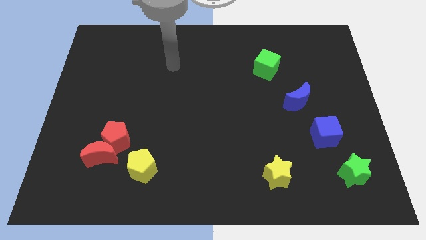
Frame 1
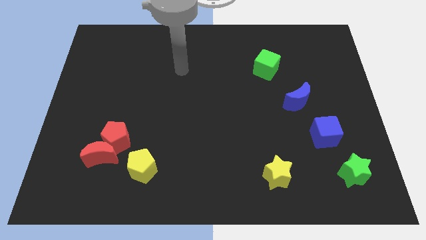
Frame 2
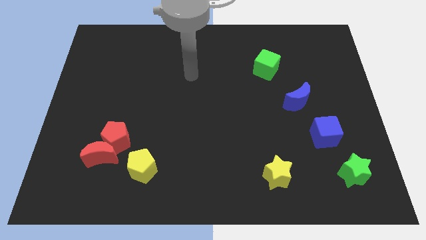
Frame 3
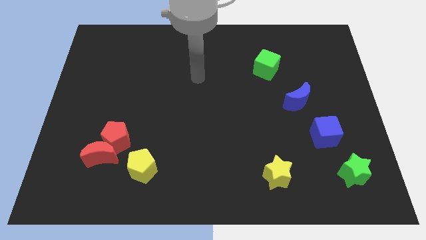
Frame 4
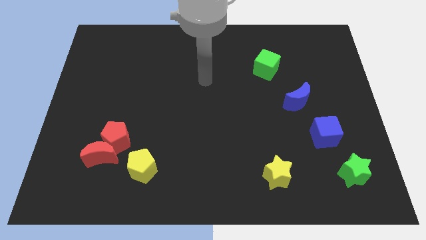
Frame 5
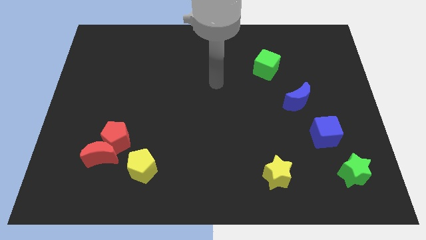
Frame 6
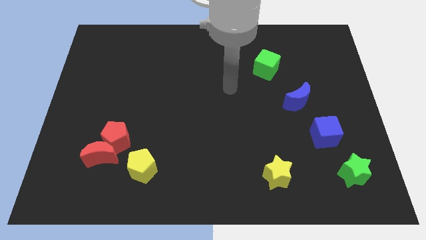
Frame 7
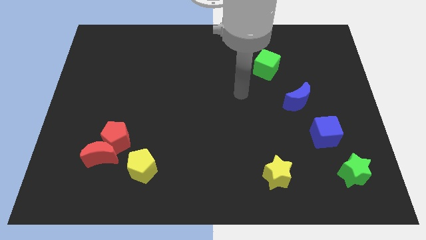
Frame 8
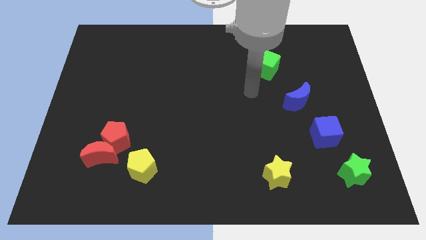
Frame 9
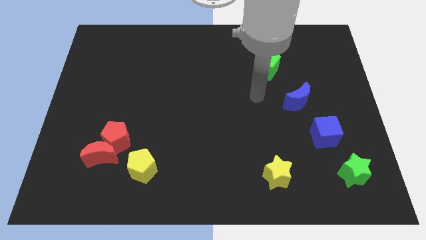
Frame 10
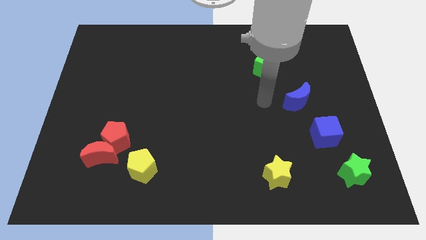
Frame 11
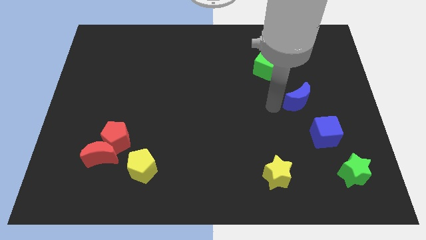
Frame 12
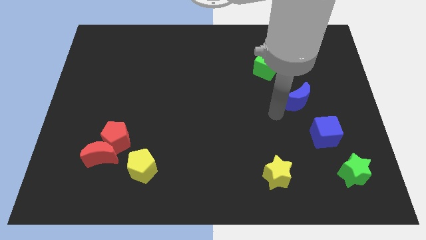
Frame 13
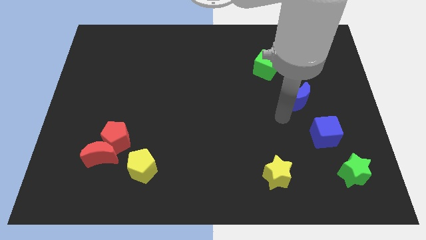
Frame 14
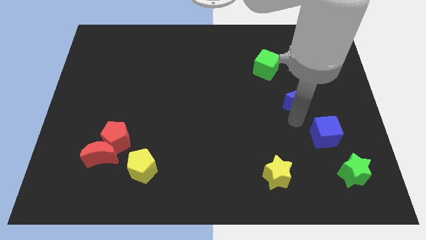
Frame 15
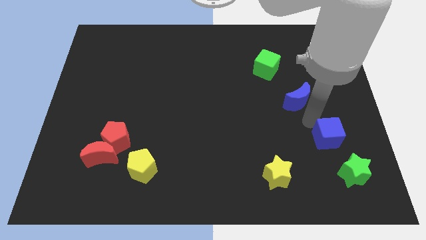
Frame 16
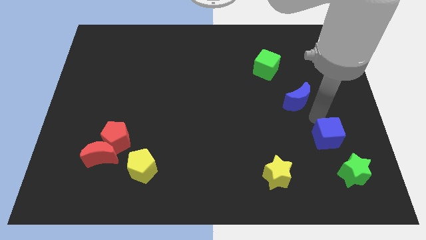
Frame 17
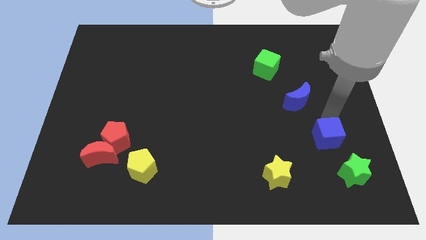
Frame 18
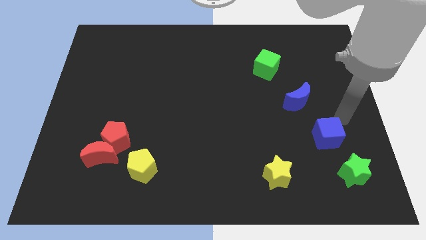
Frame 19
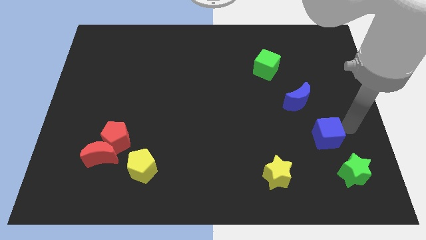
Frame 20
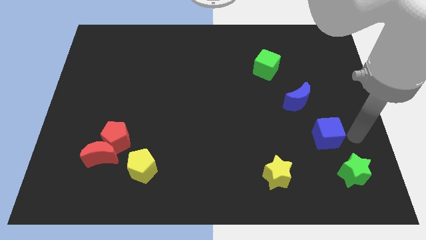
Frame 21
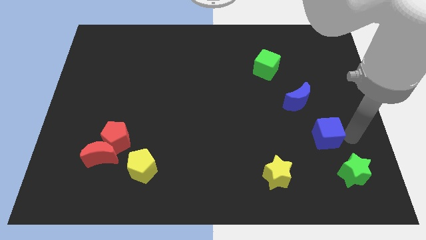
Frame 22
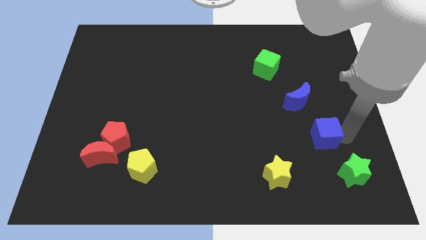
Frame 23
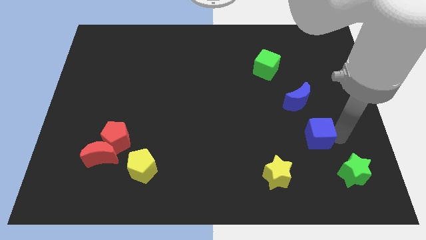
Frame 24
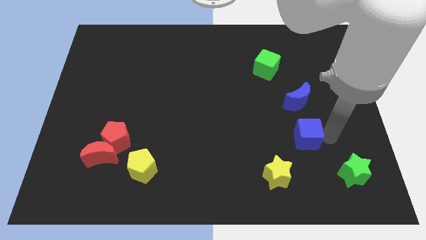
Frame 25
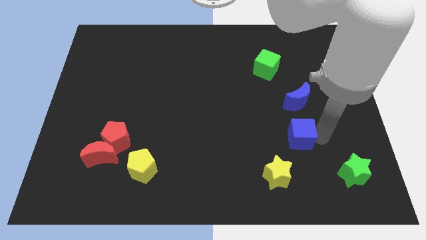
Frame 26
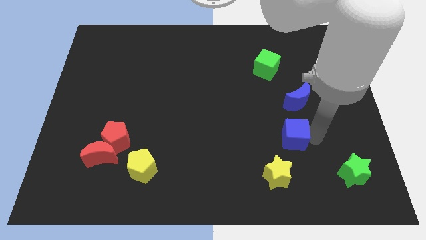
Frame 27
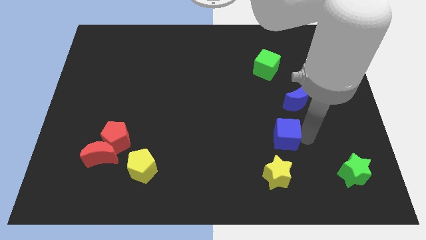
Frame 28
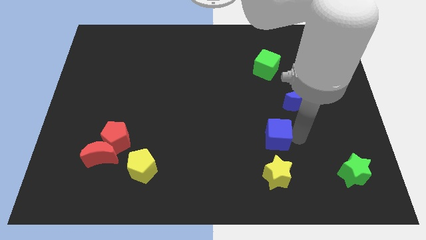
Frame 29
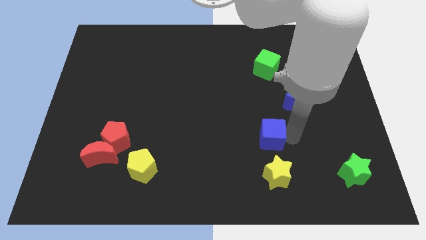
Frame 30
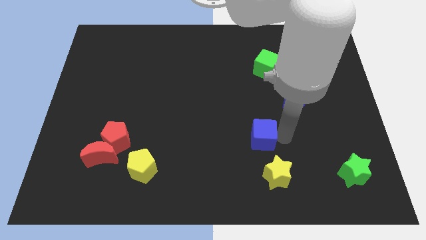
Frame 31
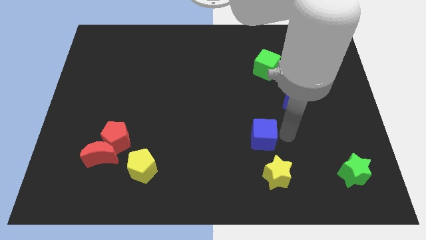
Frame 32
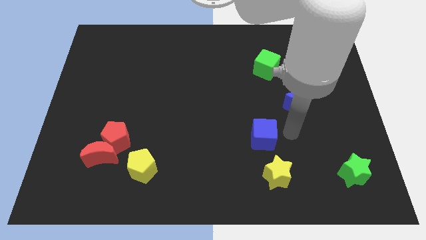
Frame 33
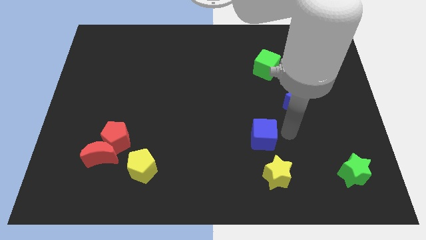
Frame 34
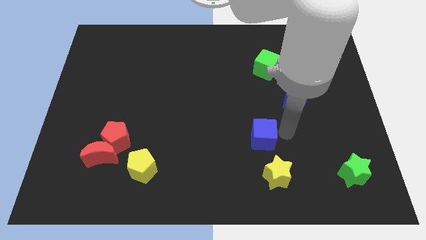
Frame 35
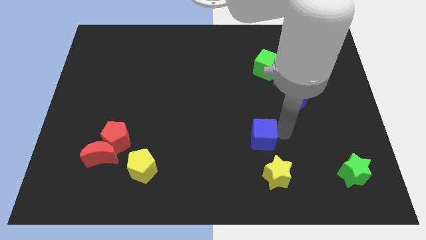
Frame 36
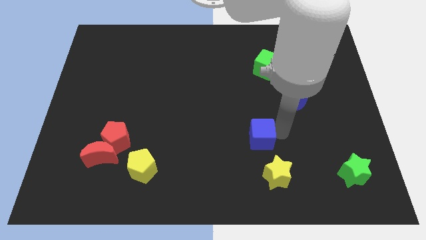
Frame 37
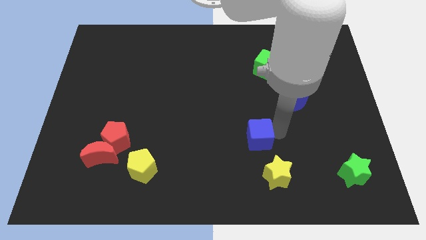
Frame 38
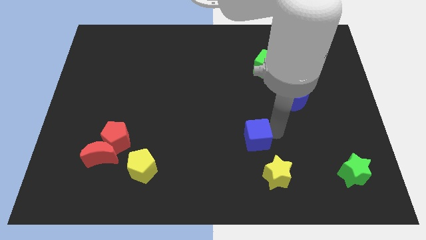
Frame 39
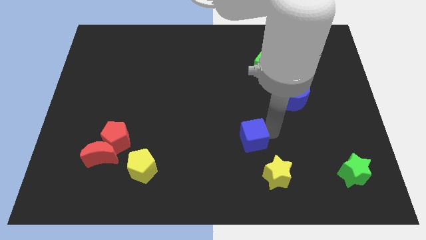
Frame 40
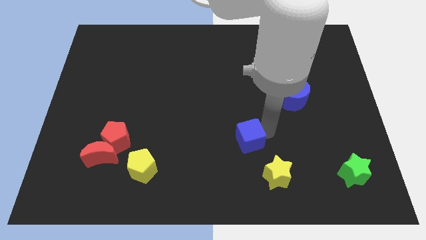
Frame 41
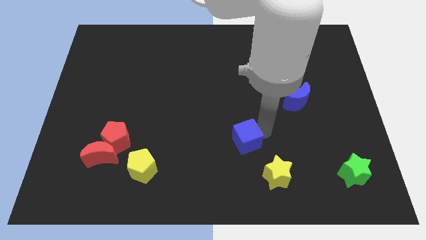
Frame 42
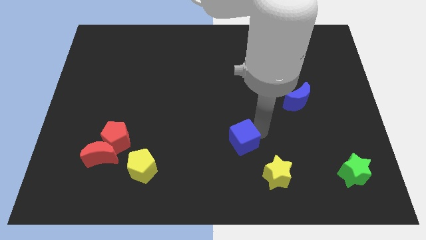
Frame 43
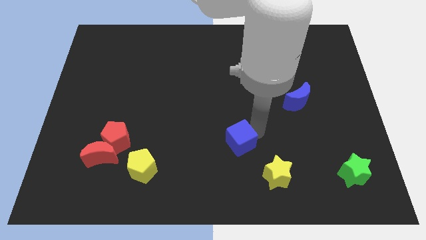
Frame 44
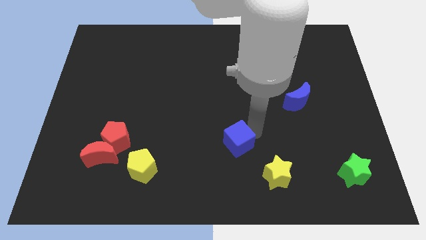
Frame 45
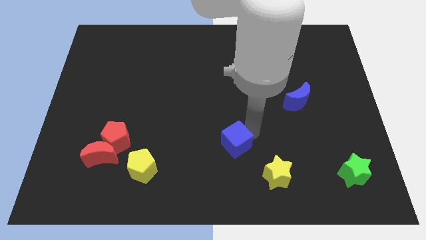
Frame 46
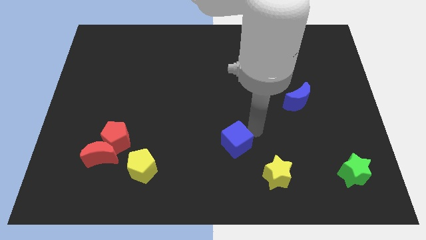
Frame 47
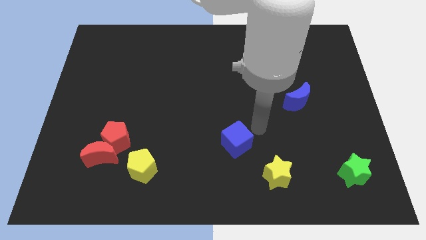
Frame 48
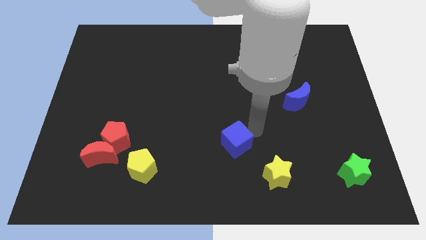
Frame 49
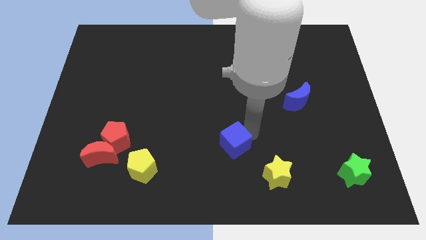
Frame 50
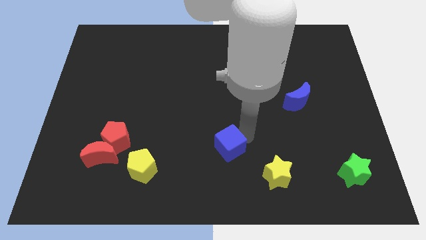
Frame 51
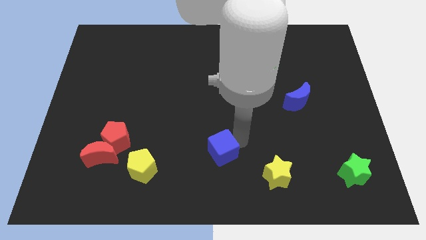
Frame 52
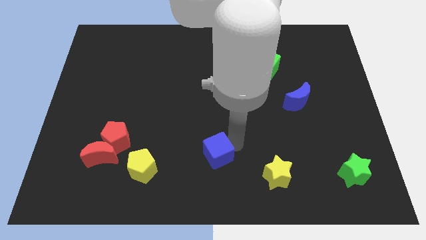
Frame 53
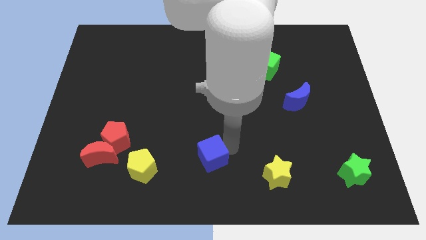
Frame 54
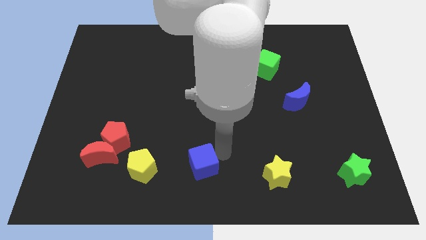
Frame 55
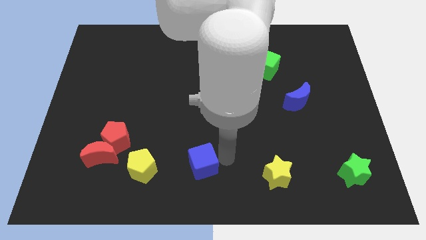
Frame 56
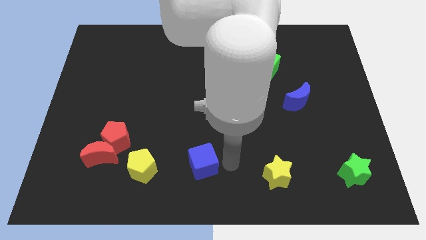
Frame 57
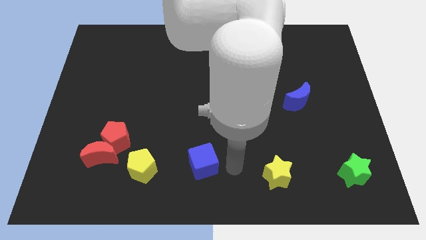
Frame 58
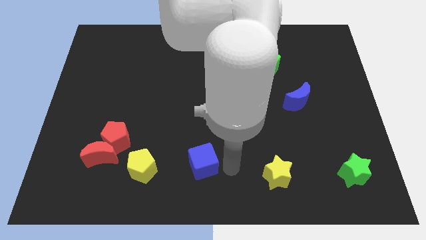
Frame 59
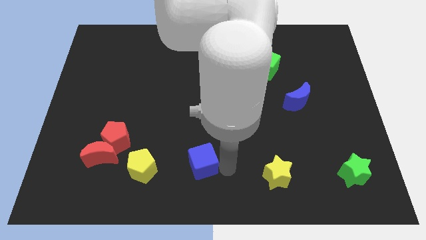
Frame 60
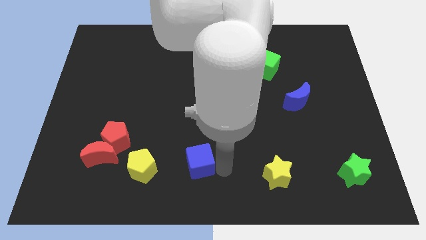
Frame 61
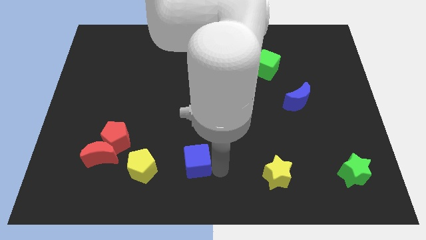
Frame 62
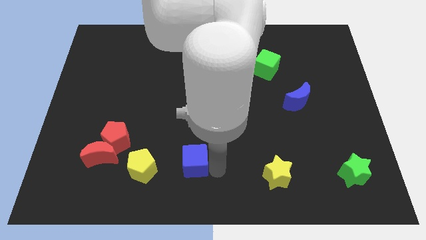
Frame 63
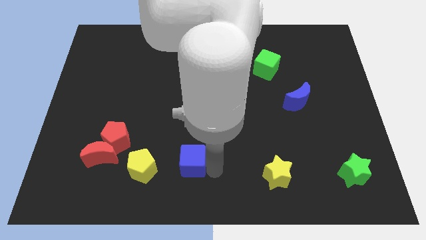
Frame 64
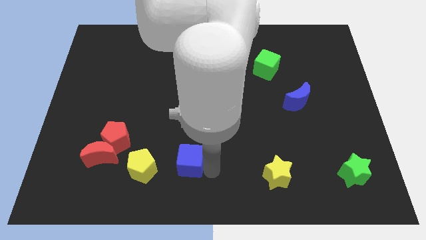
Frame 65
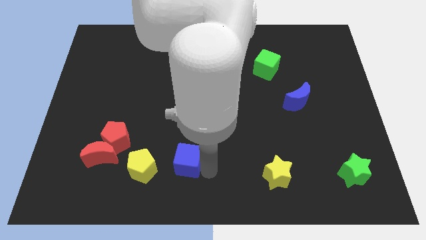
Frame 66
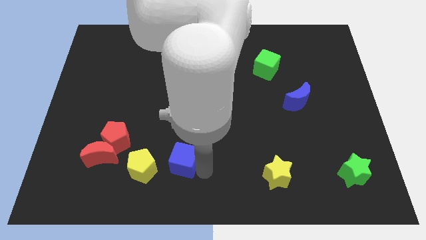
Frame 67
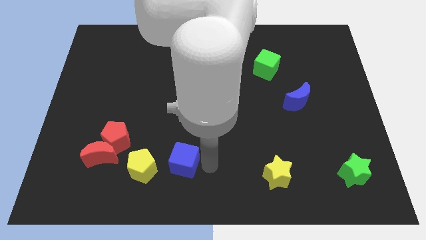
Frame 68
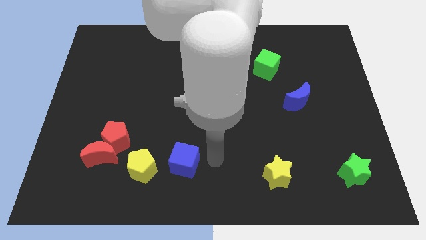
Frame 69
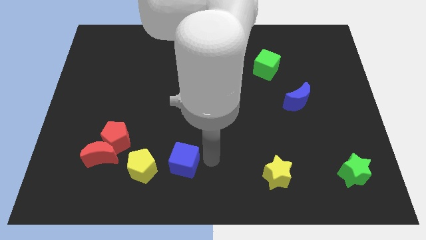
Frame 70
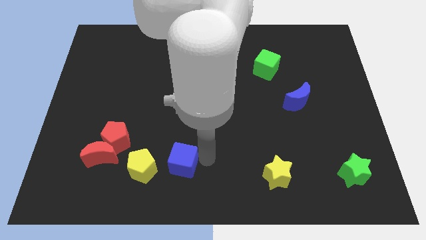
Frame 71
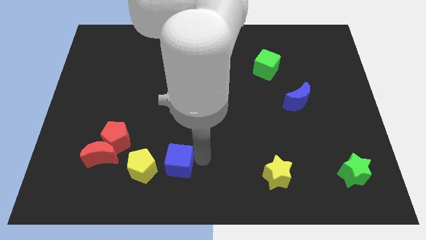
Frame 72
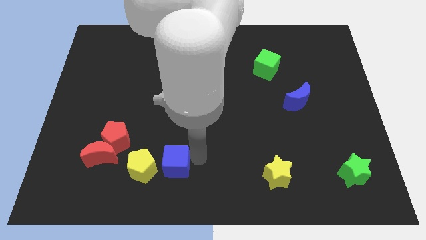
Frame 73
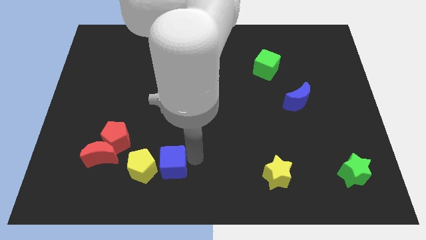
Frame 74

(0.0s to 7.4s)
move the blue cube next to the yellow pentagon
